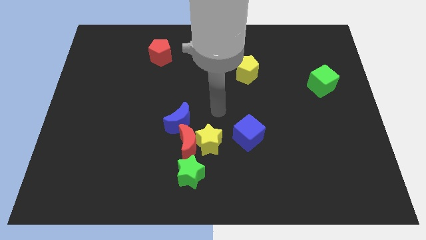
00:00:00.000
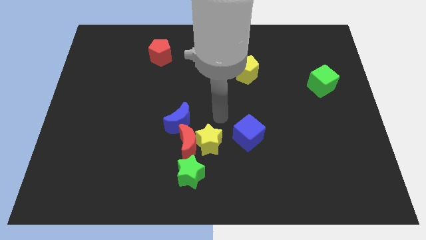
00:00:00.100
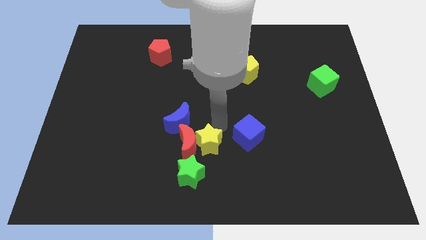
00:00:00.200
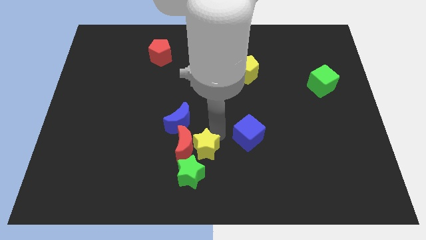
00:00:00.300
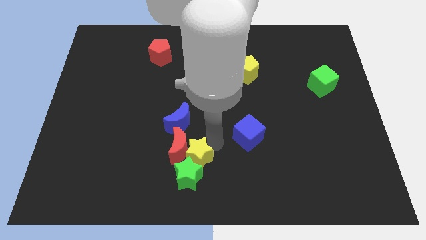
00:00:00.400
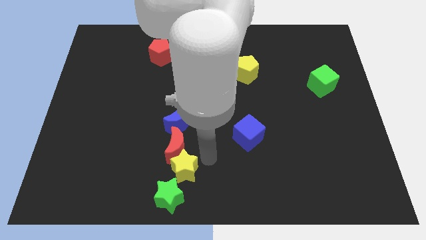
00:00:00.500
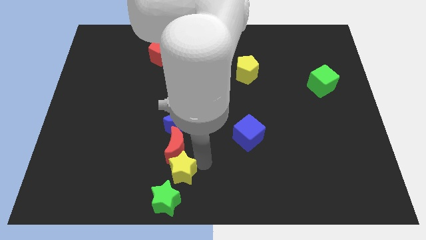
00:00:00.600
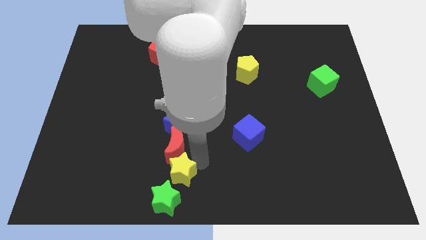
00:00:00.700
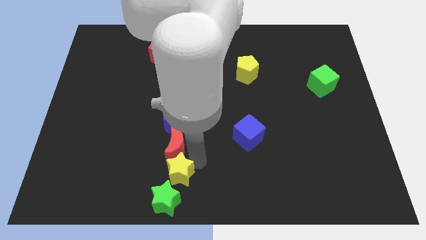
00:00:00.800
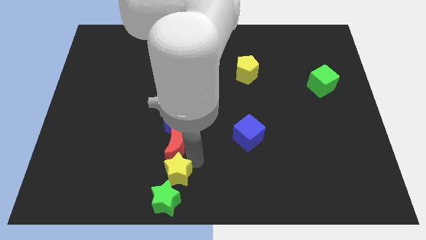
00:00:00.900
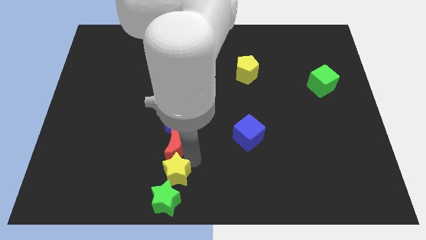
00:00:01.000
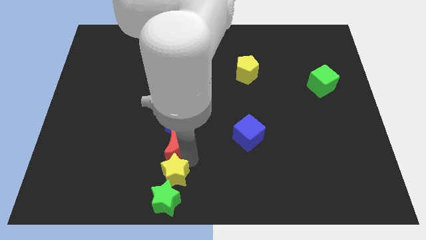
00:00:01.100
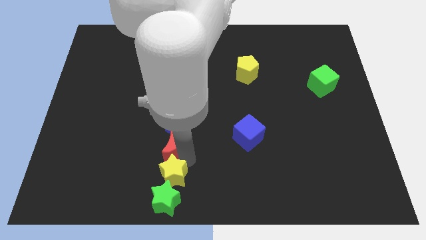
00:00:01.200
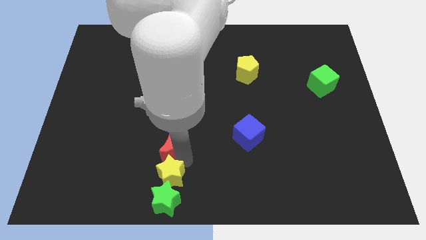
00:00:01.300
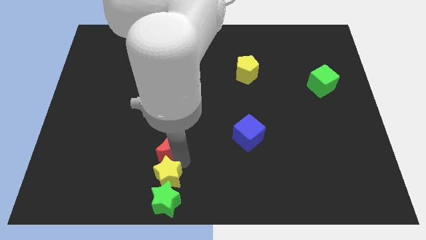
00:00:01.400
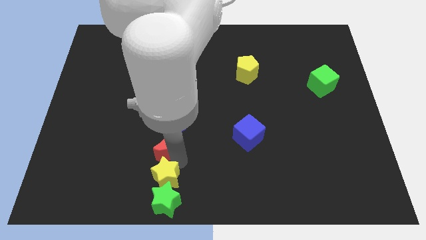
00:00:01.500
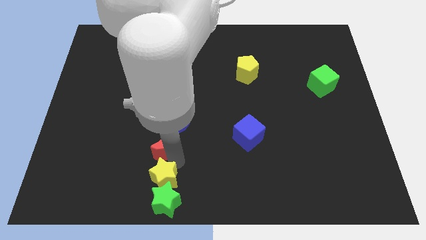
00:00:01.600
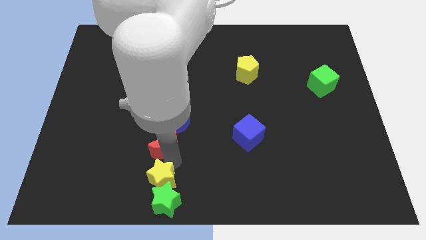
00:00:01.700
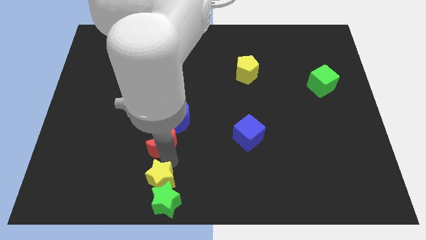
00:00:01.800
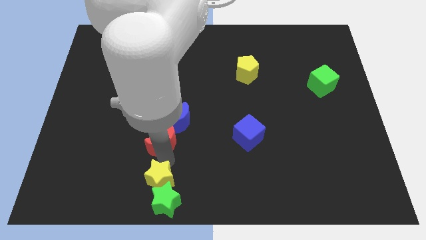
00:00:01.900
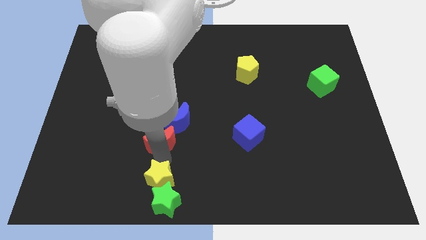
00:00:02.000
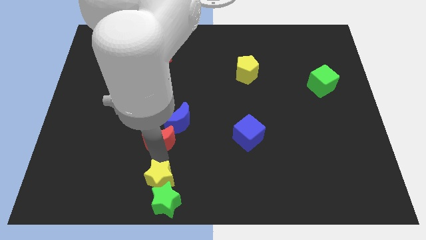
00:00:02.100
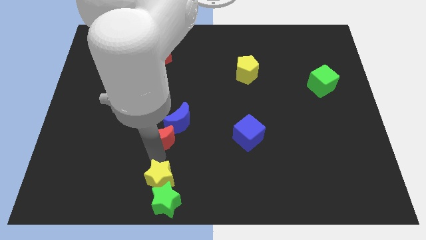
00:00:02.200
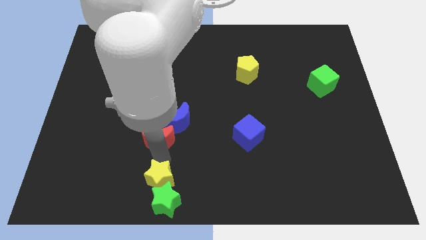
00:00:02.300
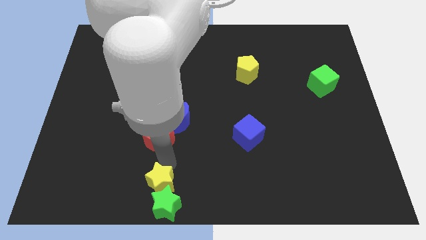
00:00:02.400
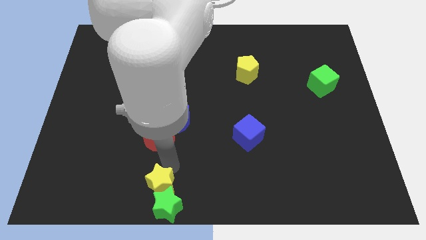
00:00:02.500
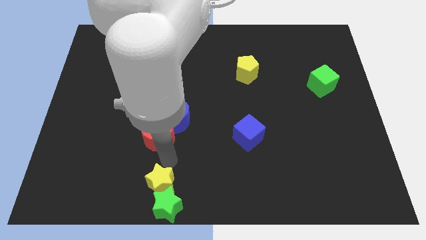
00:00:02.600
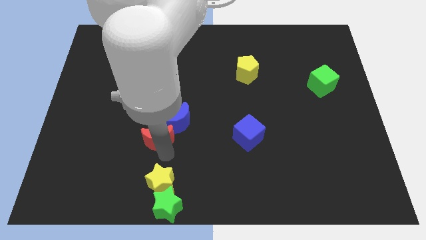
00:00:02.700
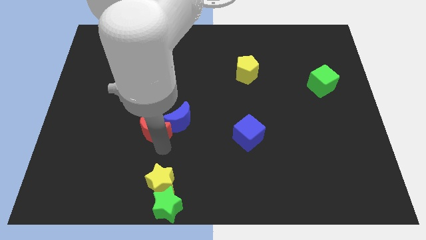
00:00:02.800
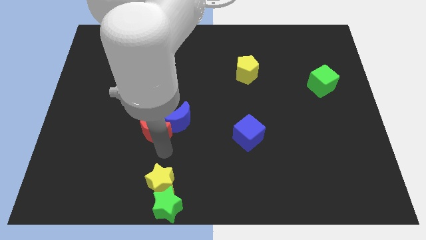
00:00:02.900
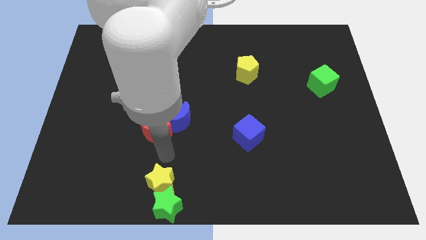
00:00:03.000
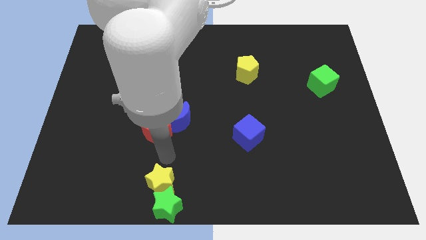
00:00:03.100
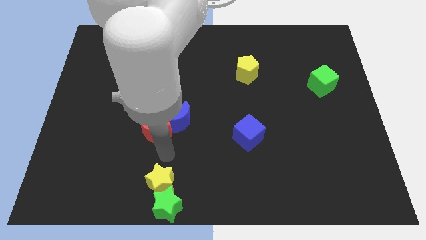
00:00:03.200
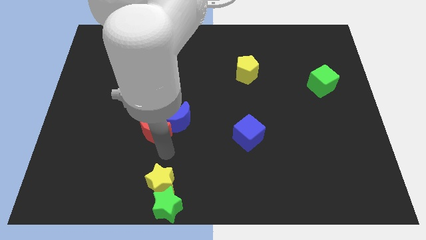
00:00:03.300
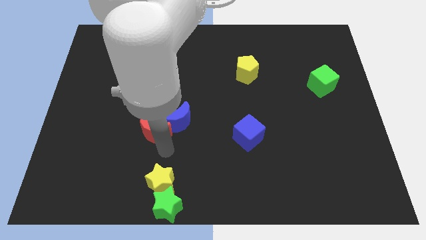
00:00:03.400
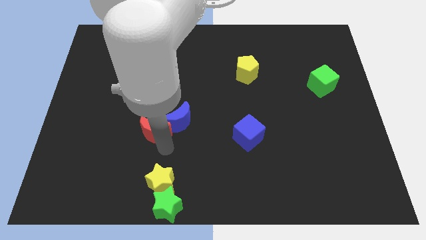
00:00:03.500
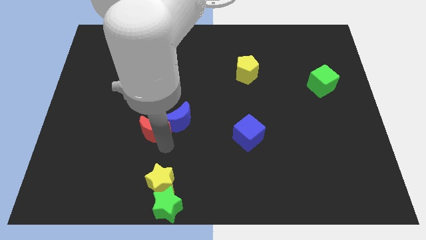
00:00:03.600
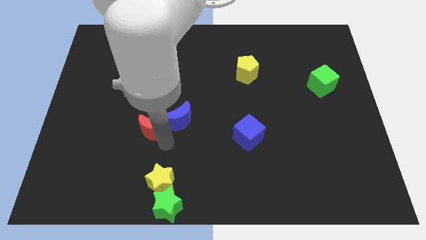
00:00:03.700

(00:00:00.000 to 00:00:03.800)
move the red moon away from the group of blocks

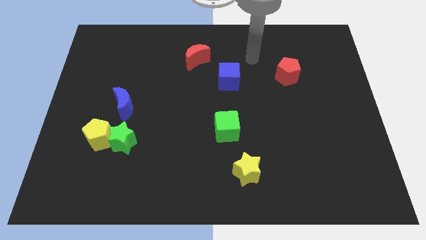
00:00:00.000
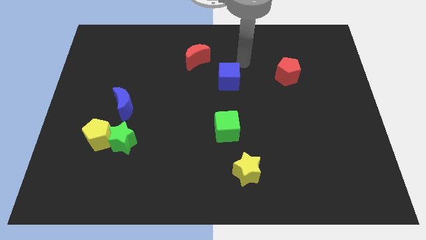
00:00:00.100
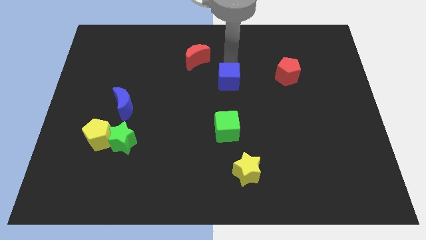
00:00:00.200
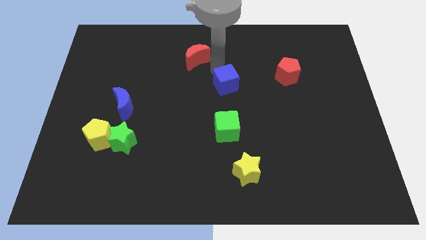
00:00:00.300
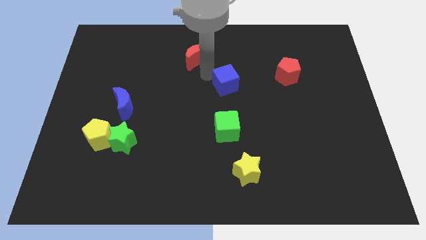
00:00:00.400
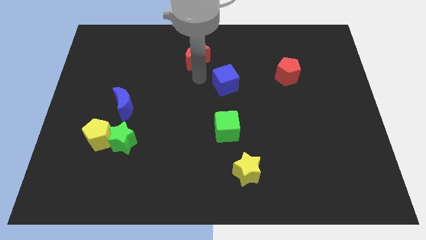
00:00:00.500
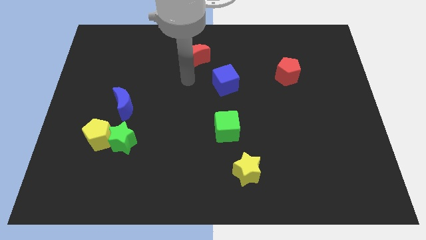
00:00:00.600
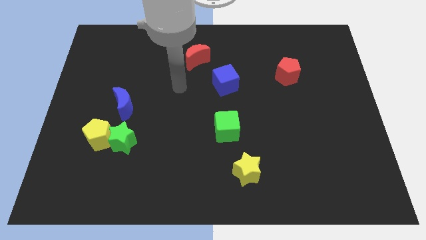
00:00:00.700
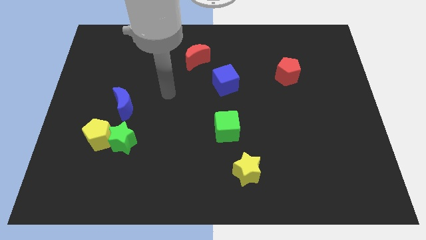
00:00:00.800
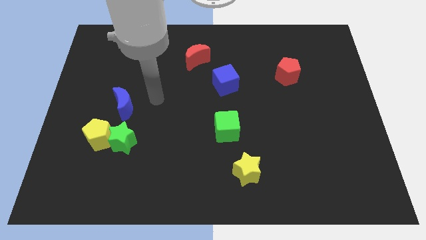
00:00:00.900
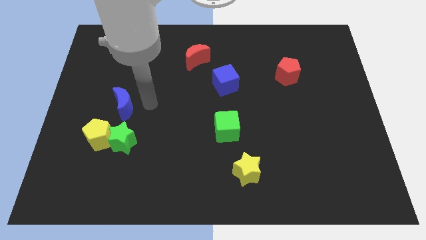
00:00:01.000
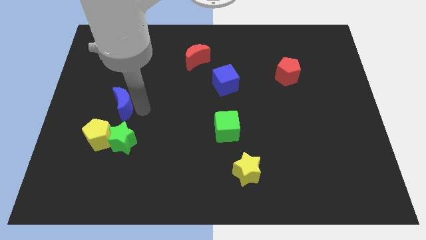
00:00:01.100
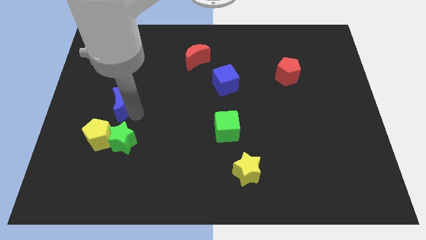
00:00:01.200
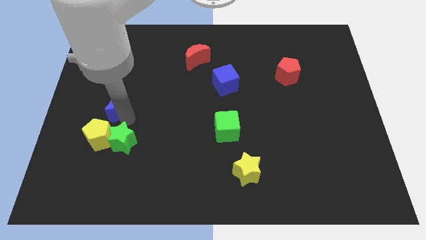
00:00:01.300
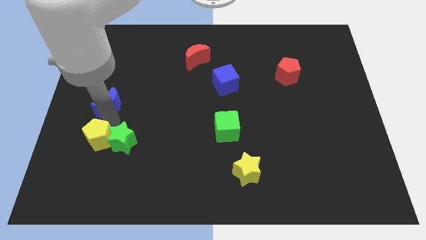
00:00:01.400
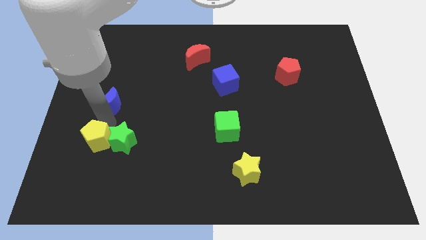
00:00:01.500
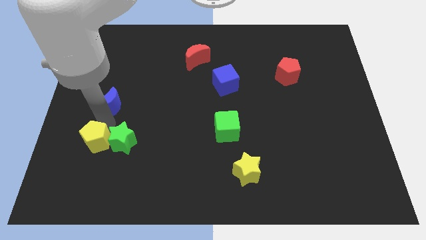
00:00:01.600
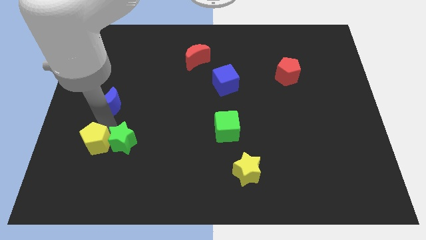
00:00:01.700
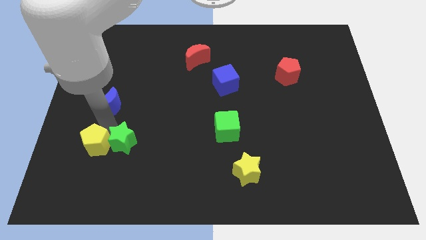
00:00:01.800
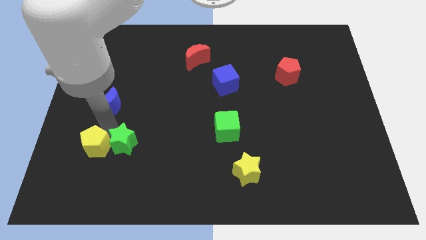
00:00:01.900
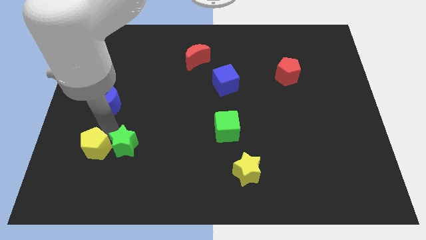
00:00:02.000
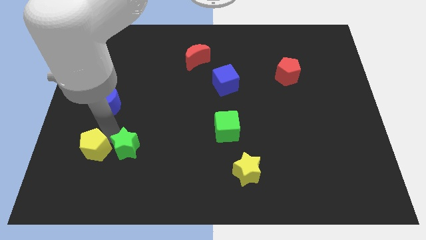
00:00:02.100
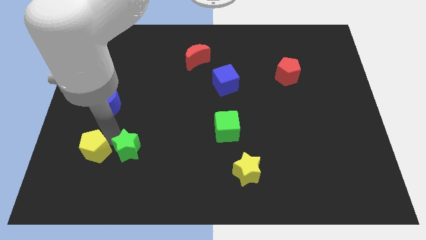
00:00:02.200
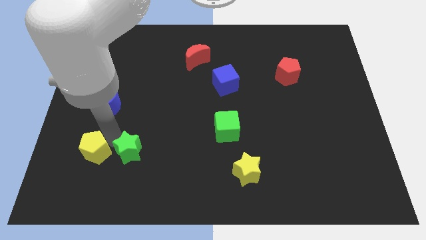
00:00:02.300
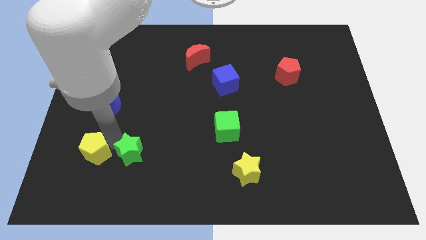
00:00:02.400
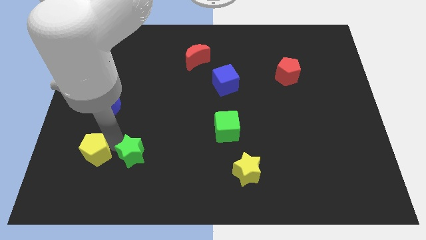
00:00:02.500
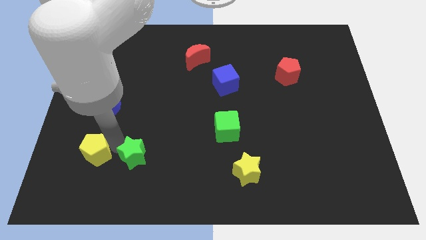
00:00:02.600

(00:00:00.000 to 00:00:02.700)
pull the green star apart from the yellow pentagon and blue moon

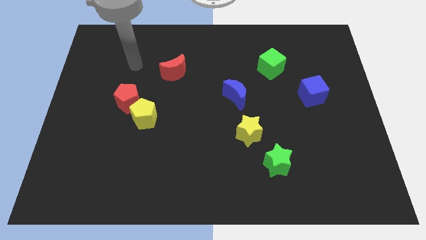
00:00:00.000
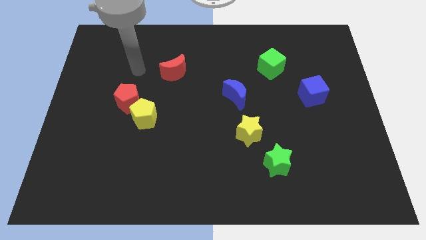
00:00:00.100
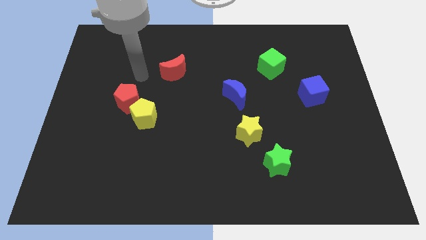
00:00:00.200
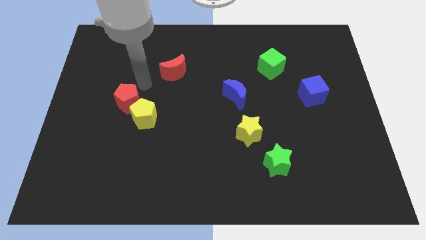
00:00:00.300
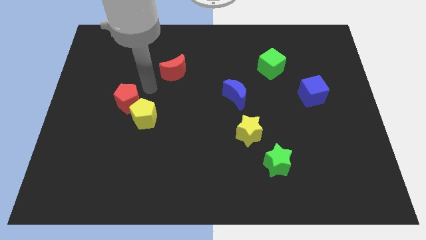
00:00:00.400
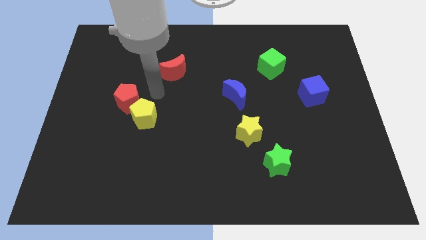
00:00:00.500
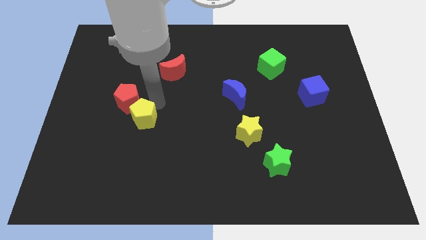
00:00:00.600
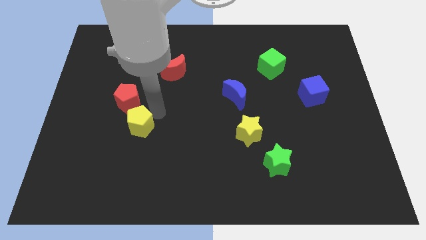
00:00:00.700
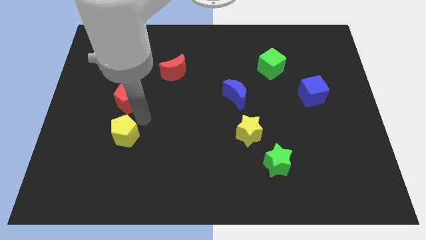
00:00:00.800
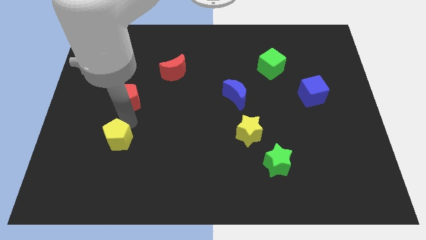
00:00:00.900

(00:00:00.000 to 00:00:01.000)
separate the red pentagon from the yellow pentagon

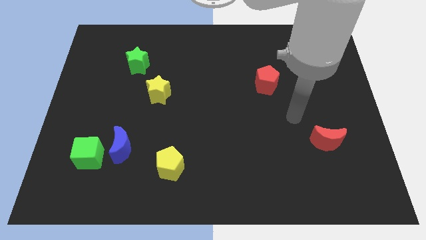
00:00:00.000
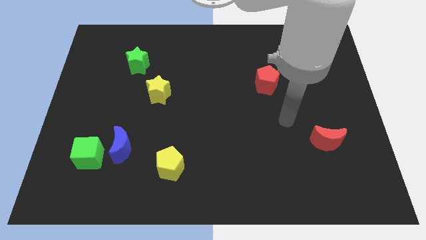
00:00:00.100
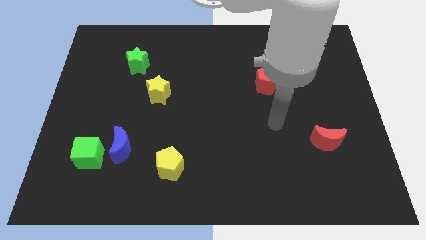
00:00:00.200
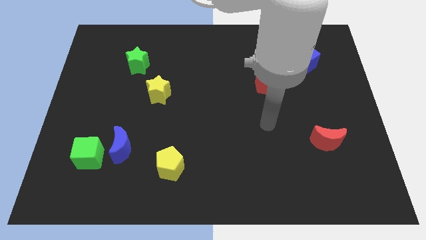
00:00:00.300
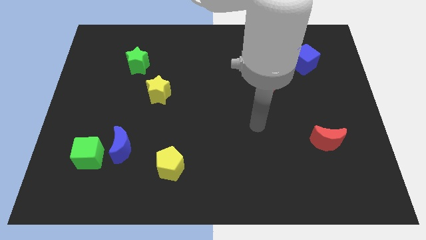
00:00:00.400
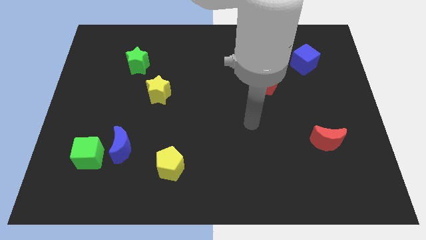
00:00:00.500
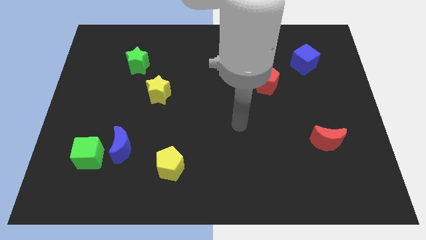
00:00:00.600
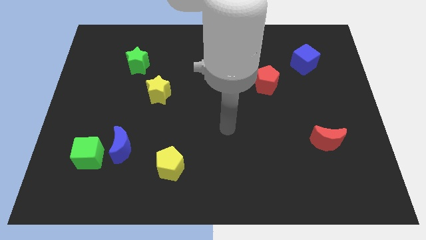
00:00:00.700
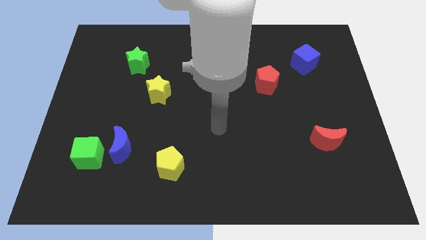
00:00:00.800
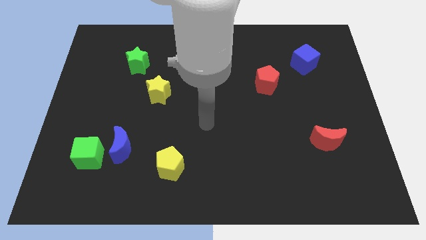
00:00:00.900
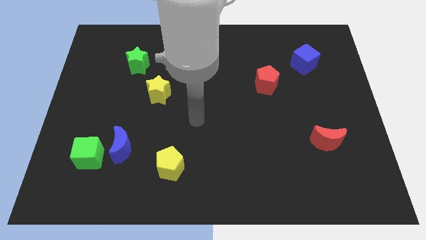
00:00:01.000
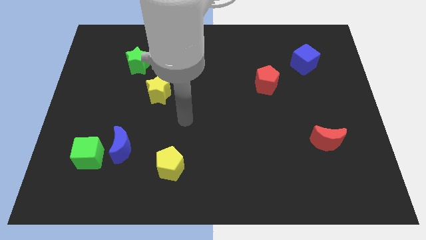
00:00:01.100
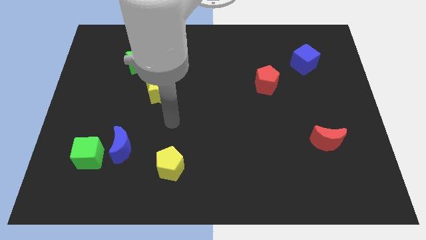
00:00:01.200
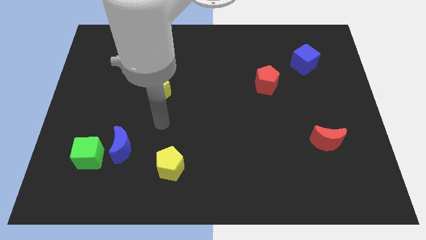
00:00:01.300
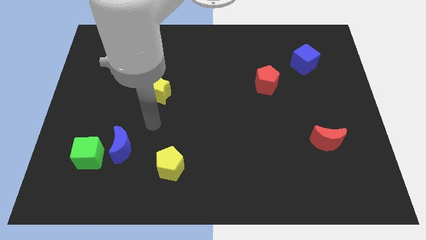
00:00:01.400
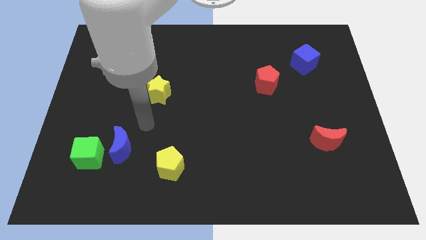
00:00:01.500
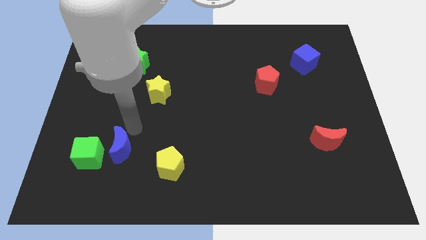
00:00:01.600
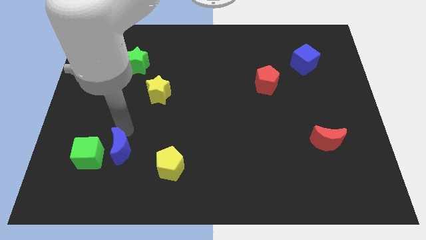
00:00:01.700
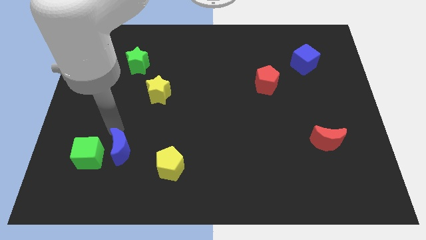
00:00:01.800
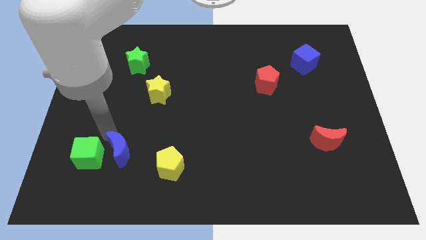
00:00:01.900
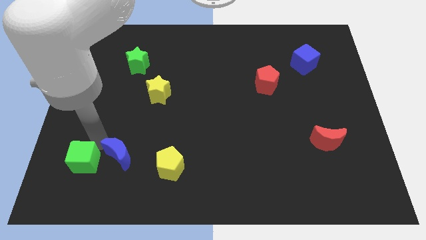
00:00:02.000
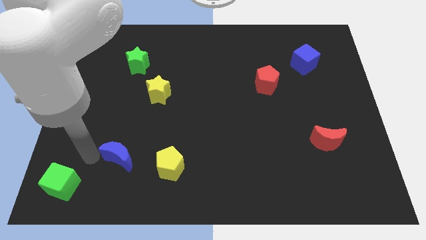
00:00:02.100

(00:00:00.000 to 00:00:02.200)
pull the blue moon apart from the green cube
